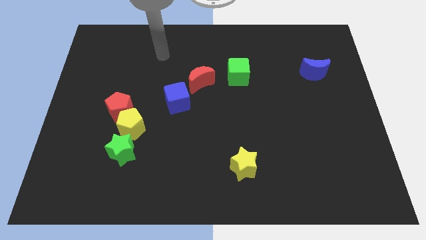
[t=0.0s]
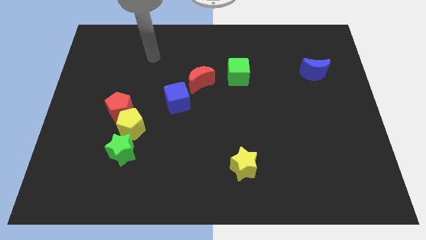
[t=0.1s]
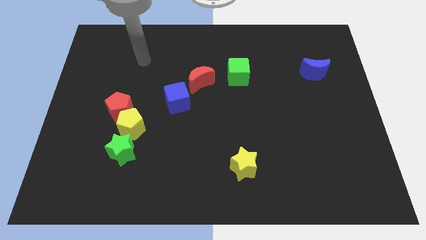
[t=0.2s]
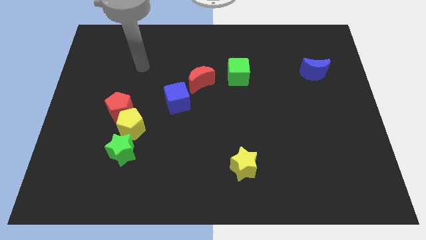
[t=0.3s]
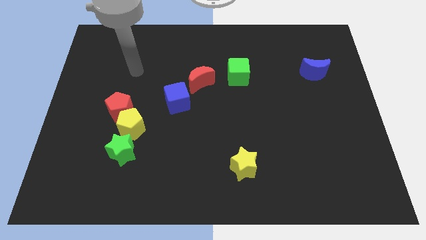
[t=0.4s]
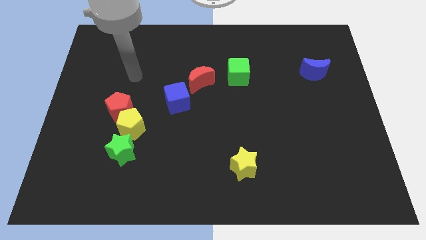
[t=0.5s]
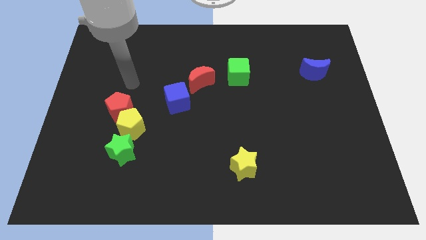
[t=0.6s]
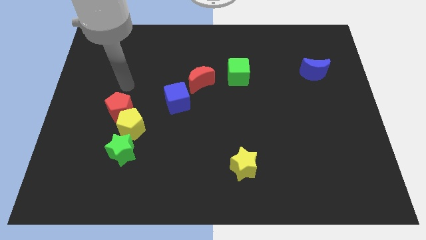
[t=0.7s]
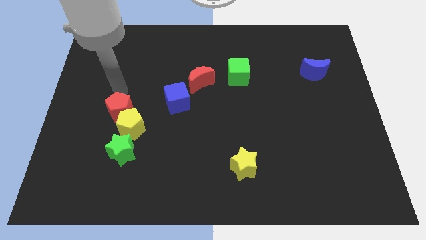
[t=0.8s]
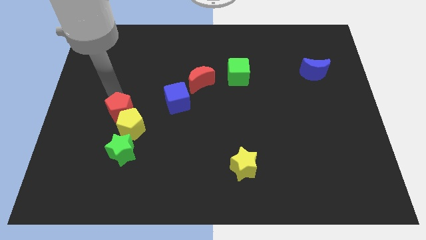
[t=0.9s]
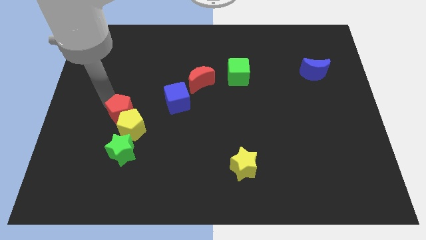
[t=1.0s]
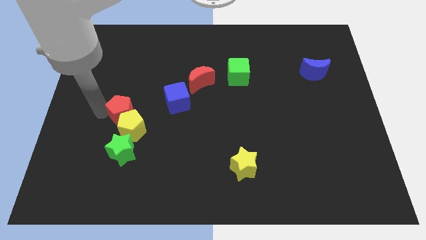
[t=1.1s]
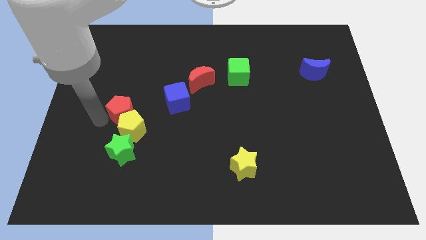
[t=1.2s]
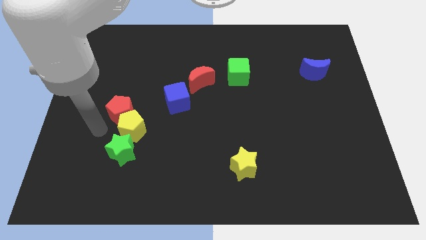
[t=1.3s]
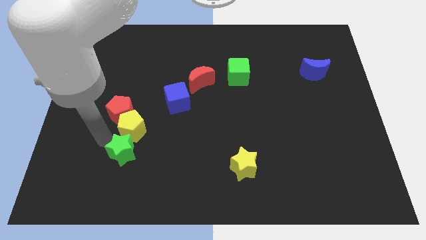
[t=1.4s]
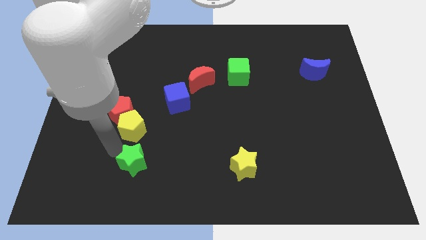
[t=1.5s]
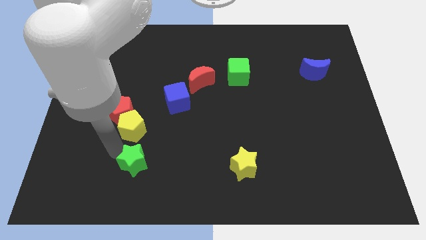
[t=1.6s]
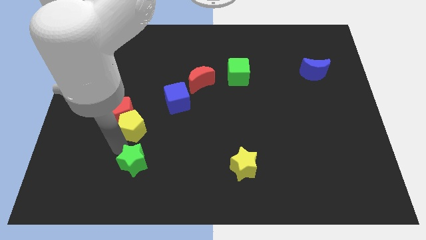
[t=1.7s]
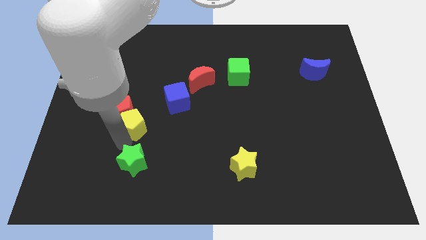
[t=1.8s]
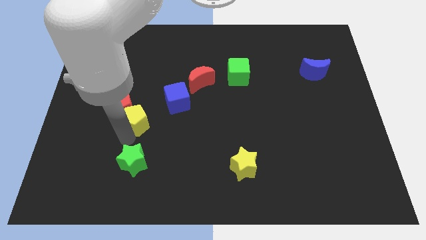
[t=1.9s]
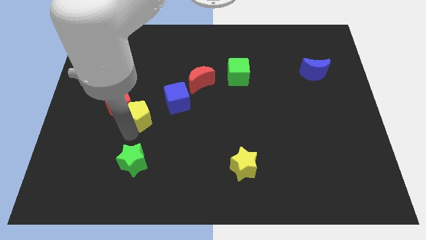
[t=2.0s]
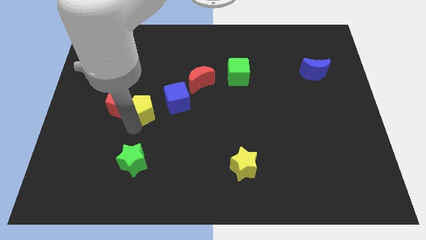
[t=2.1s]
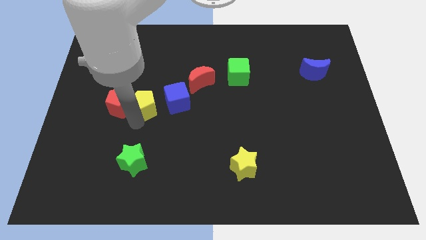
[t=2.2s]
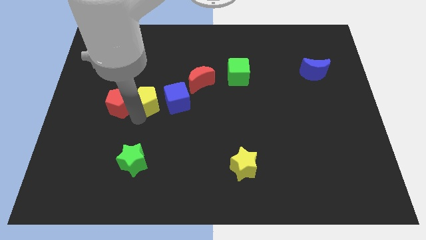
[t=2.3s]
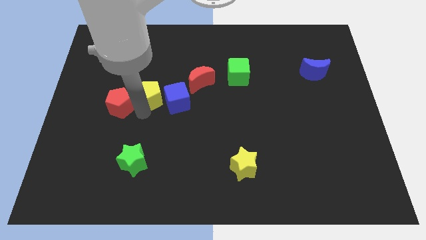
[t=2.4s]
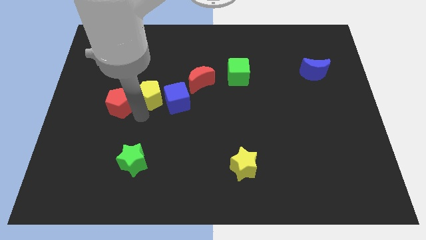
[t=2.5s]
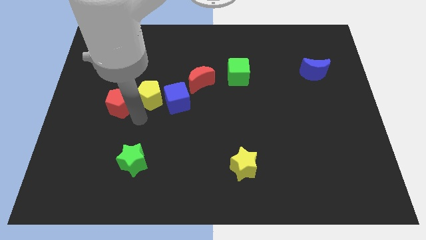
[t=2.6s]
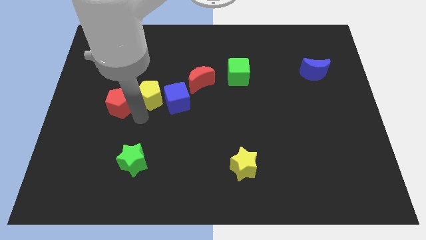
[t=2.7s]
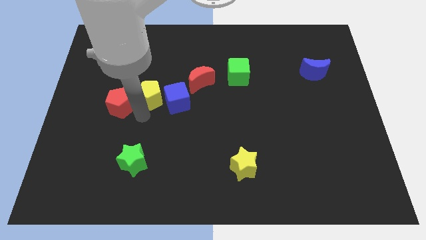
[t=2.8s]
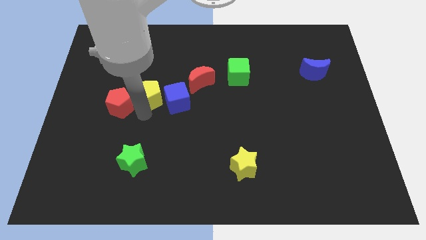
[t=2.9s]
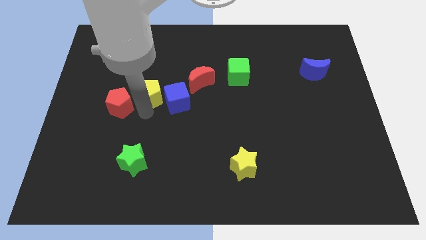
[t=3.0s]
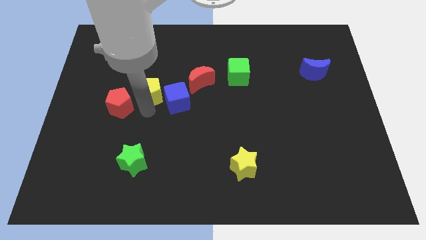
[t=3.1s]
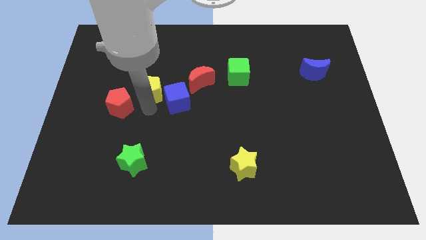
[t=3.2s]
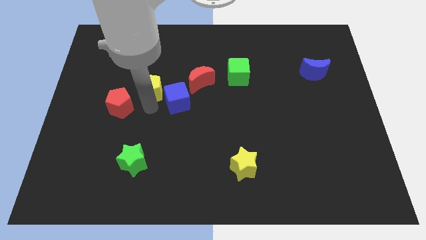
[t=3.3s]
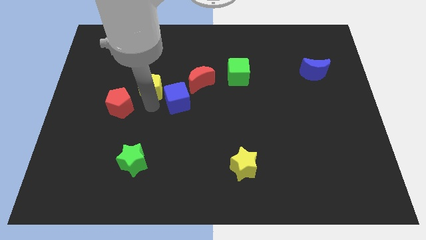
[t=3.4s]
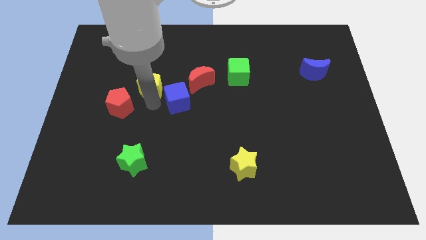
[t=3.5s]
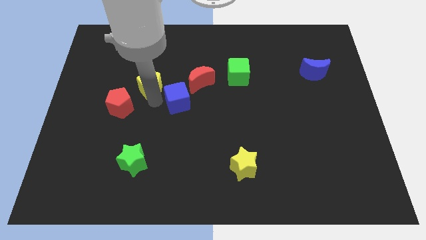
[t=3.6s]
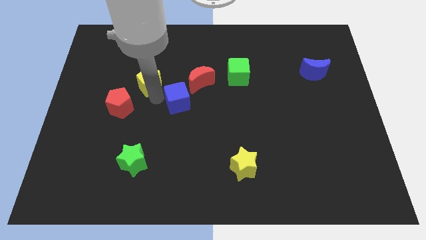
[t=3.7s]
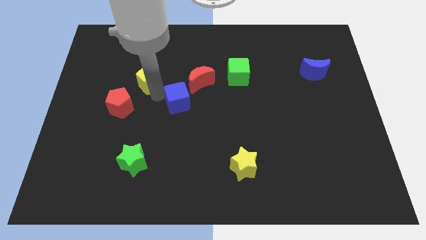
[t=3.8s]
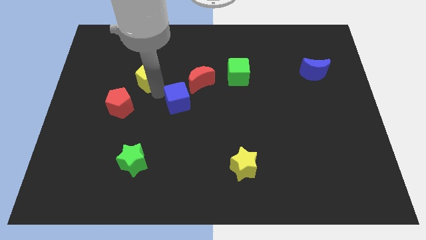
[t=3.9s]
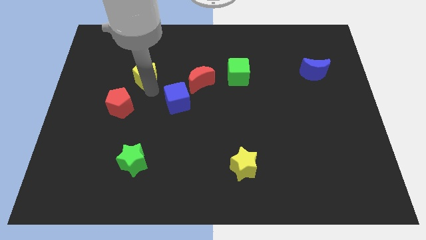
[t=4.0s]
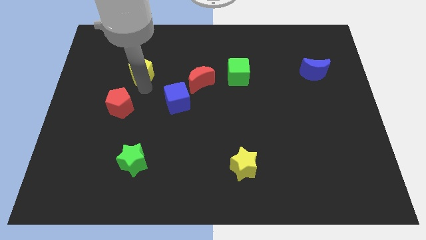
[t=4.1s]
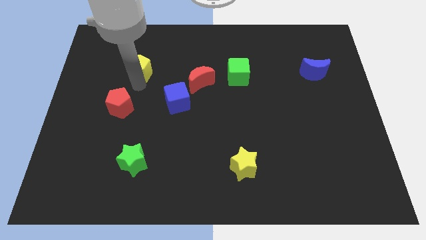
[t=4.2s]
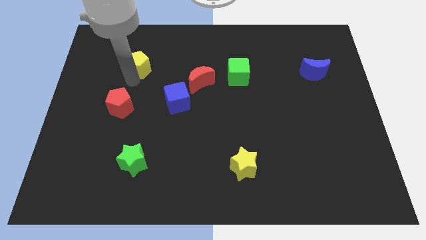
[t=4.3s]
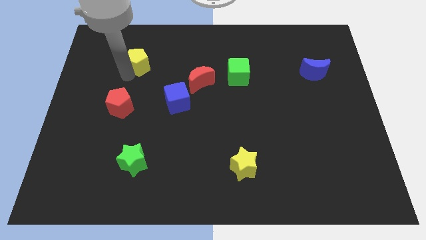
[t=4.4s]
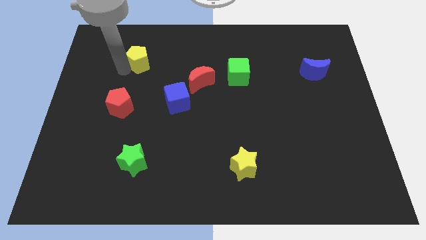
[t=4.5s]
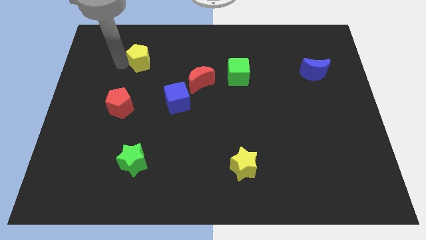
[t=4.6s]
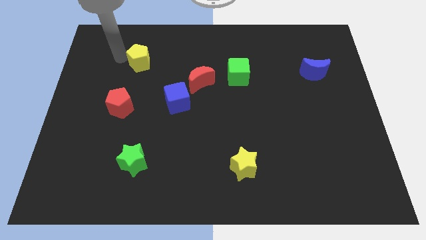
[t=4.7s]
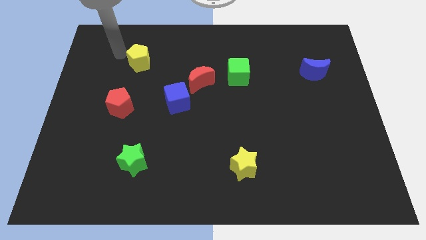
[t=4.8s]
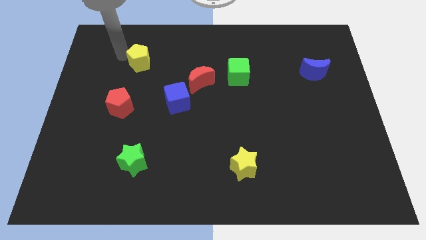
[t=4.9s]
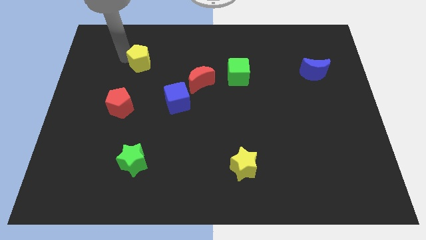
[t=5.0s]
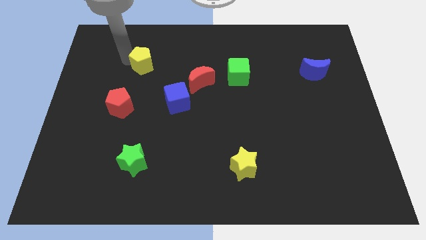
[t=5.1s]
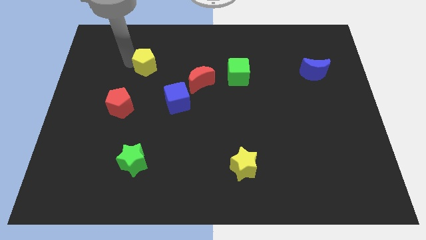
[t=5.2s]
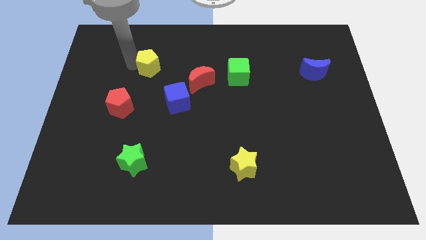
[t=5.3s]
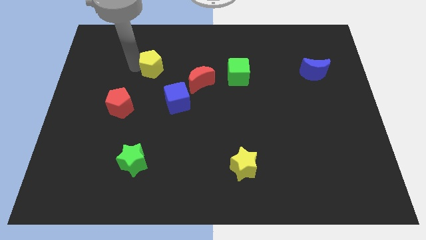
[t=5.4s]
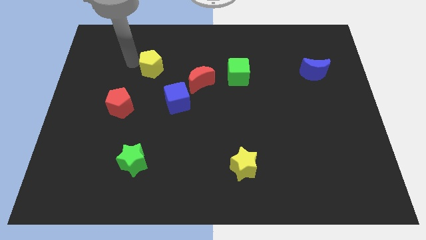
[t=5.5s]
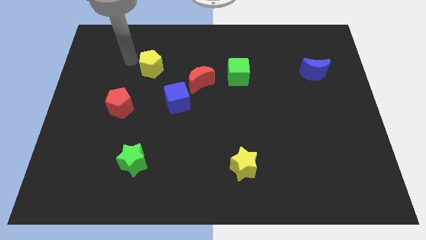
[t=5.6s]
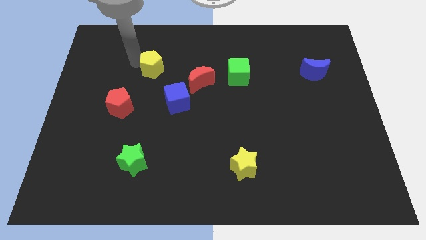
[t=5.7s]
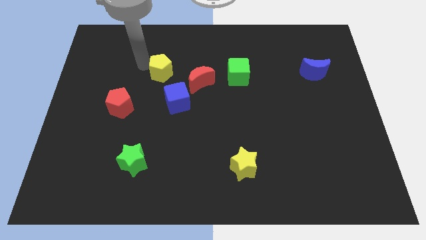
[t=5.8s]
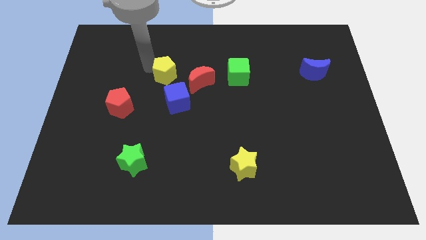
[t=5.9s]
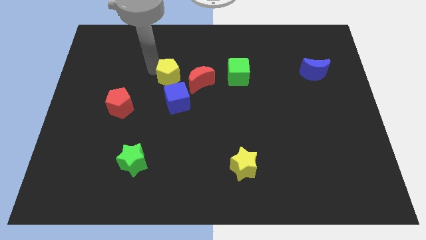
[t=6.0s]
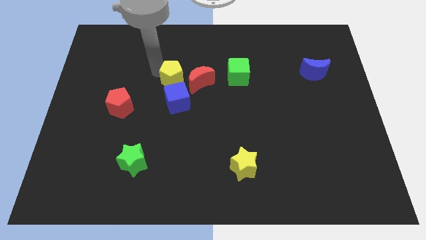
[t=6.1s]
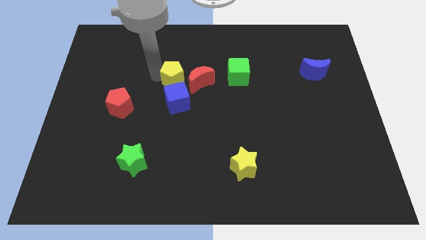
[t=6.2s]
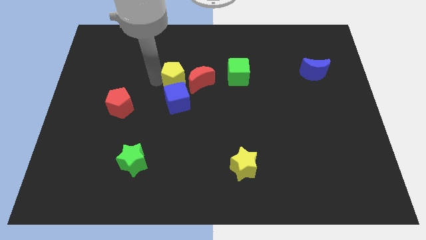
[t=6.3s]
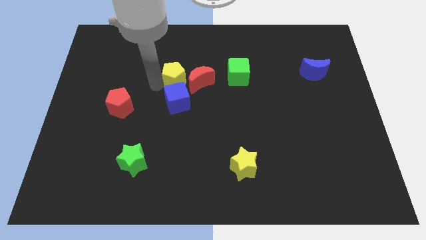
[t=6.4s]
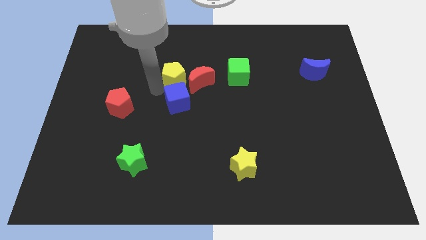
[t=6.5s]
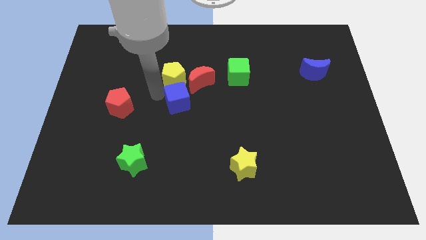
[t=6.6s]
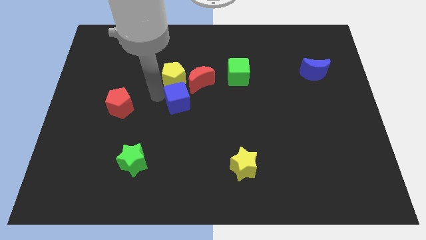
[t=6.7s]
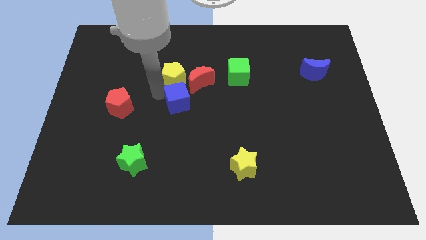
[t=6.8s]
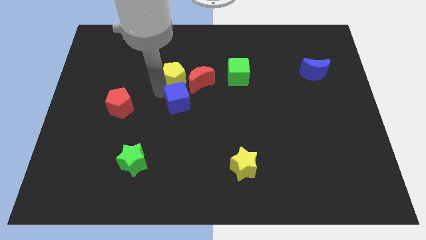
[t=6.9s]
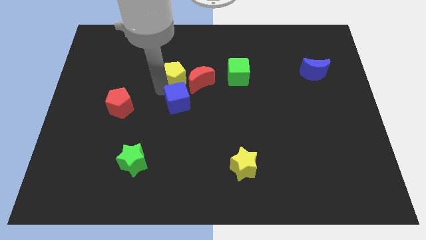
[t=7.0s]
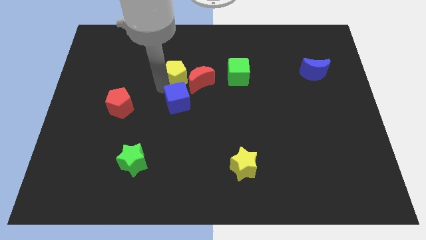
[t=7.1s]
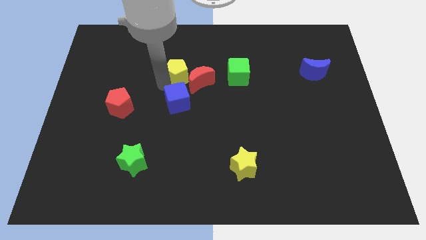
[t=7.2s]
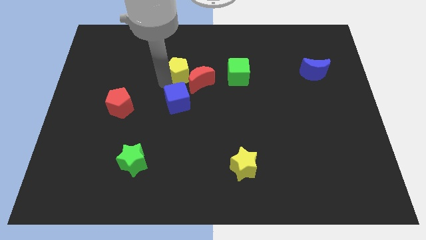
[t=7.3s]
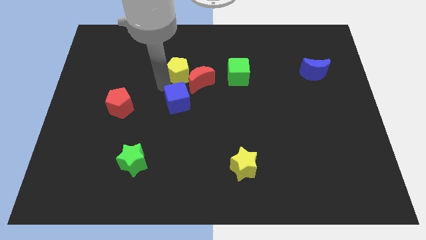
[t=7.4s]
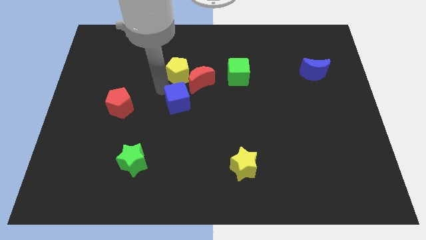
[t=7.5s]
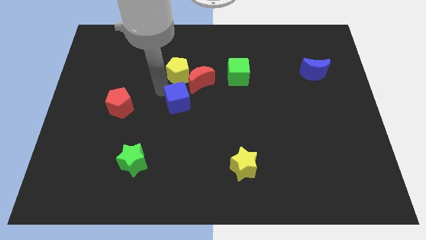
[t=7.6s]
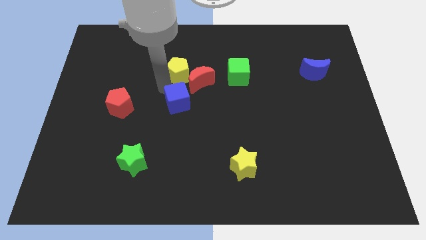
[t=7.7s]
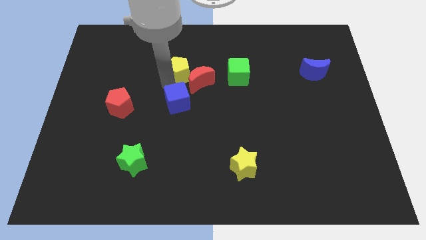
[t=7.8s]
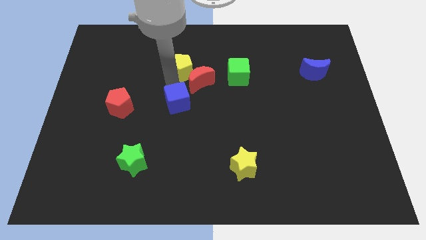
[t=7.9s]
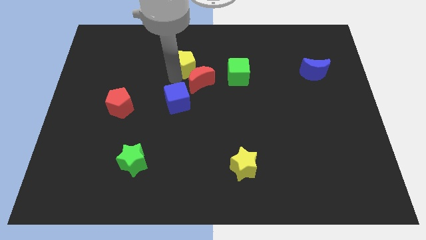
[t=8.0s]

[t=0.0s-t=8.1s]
slide the yellow pentagon upwards and right
